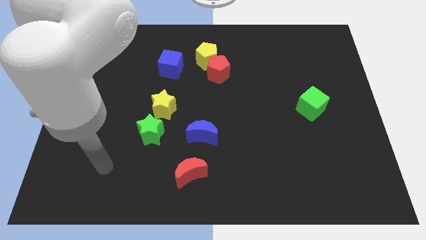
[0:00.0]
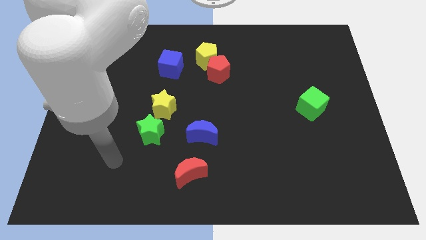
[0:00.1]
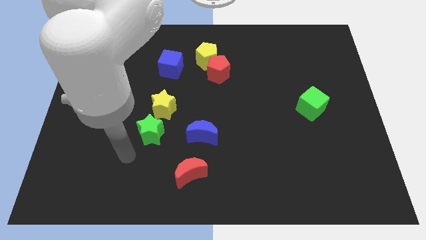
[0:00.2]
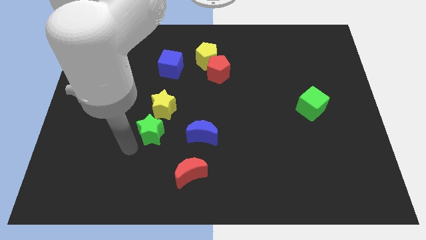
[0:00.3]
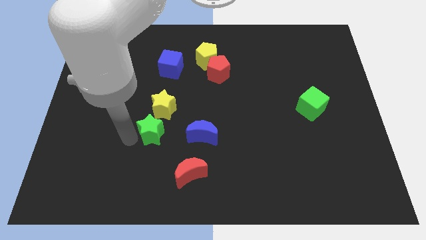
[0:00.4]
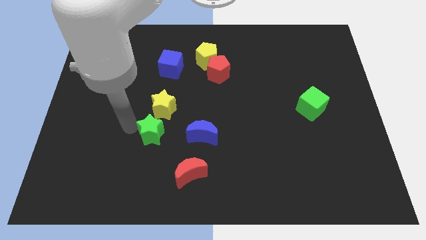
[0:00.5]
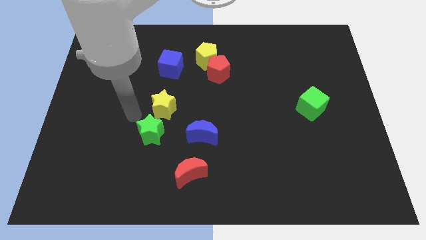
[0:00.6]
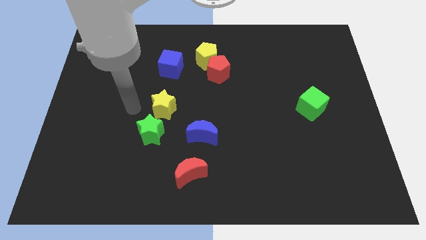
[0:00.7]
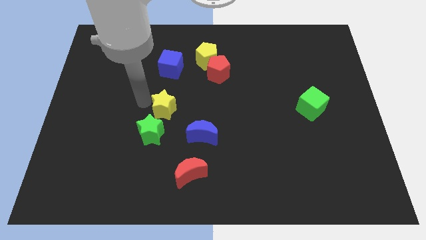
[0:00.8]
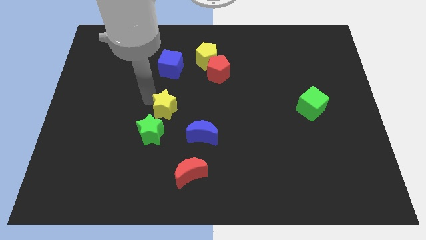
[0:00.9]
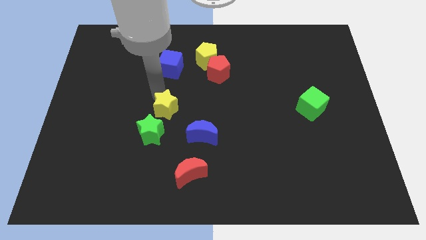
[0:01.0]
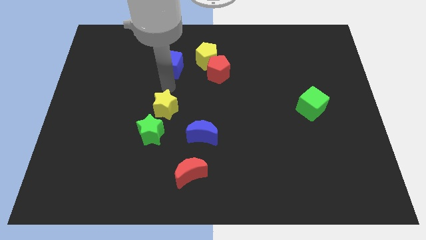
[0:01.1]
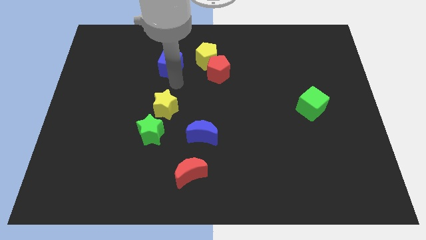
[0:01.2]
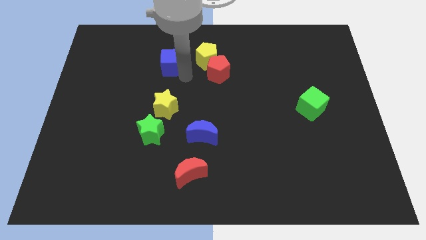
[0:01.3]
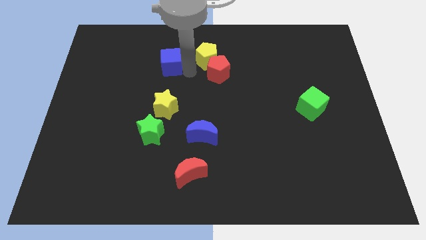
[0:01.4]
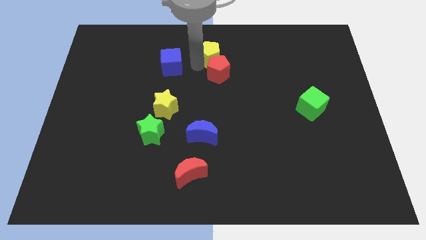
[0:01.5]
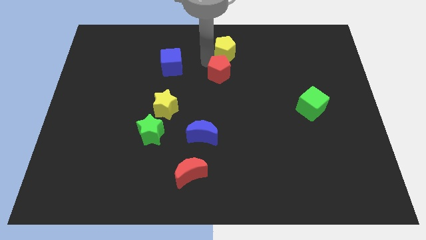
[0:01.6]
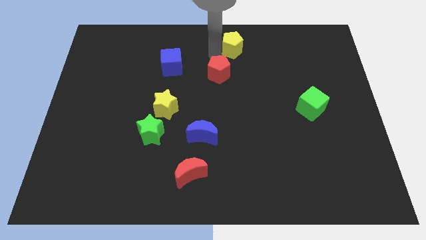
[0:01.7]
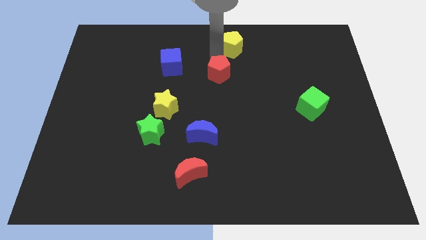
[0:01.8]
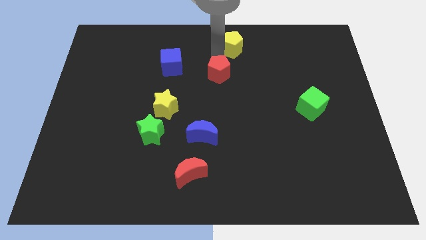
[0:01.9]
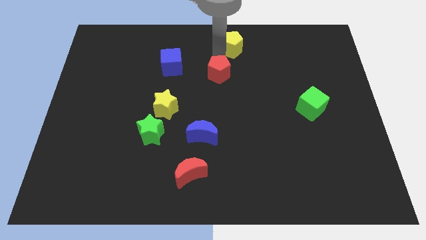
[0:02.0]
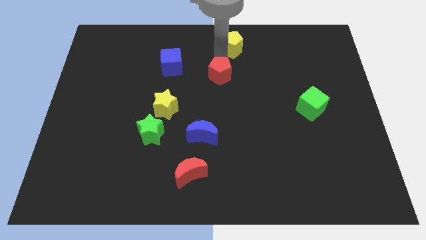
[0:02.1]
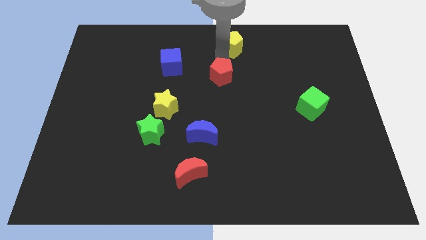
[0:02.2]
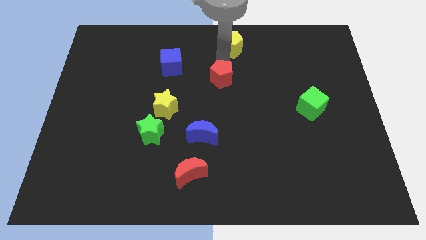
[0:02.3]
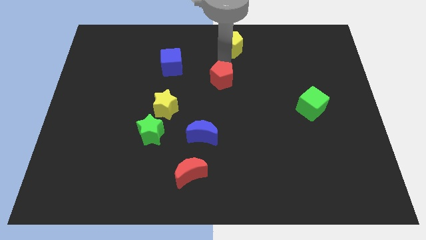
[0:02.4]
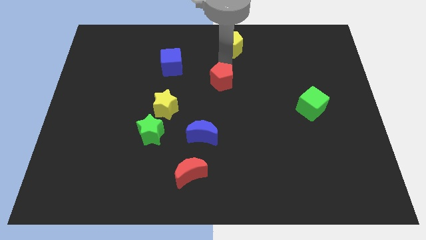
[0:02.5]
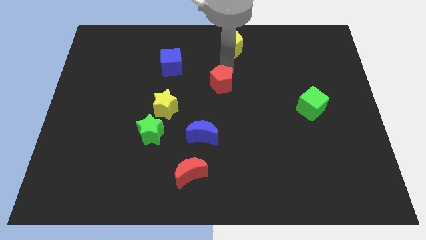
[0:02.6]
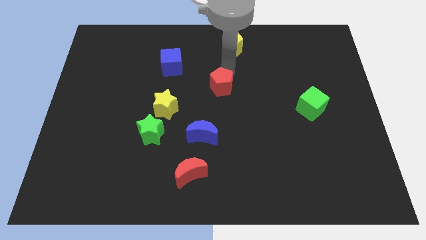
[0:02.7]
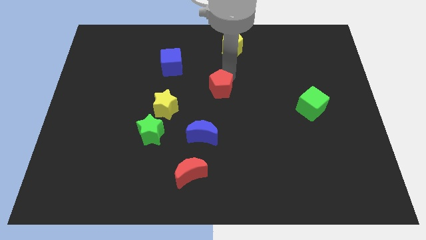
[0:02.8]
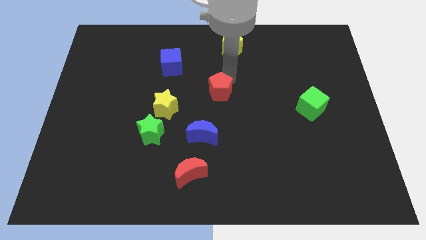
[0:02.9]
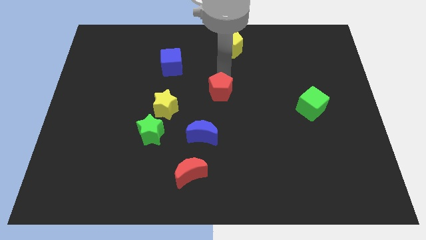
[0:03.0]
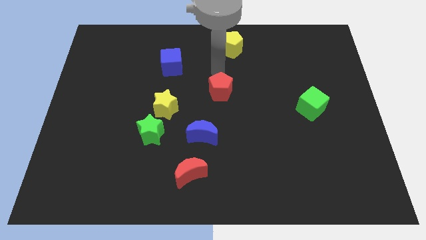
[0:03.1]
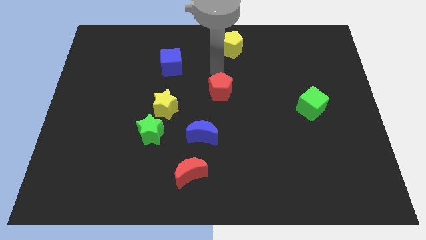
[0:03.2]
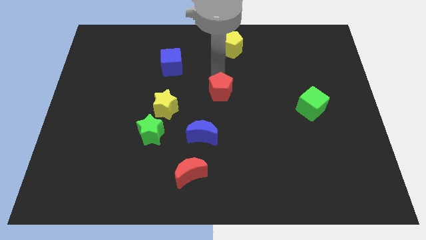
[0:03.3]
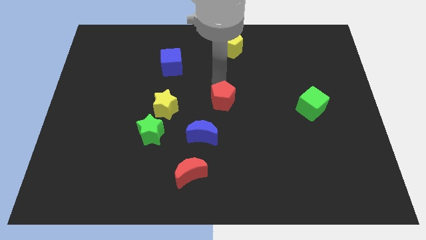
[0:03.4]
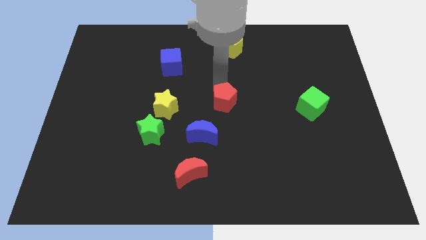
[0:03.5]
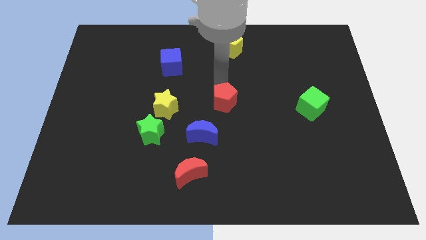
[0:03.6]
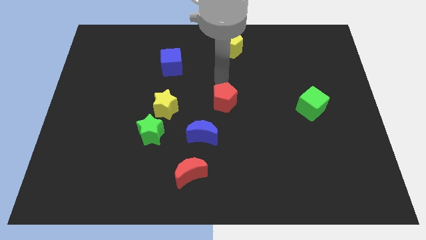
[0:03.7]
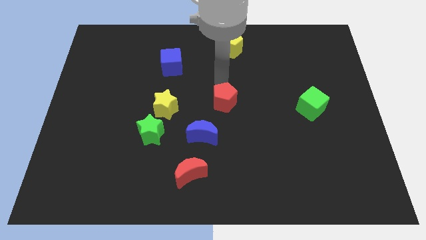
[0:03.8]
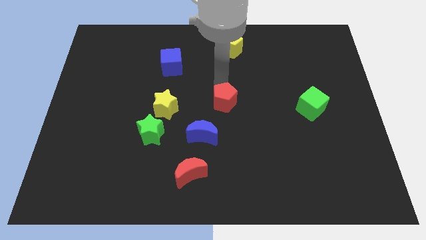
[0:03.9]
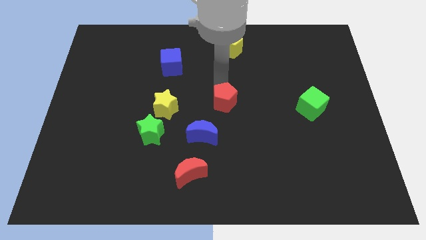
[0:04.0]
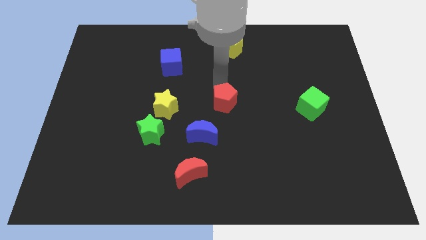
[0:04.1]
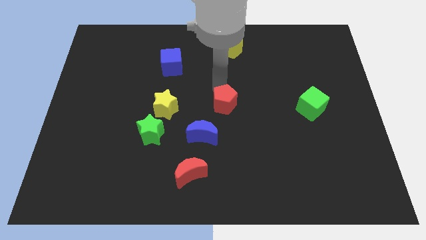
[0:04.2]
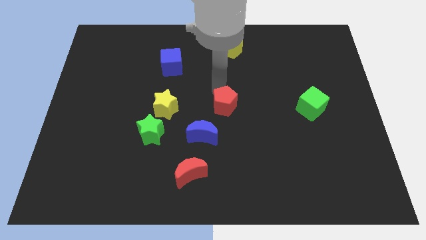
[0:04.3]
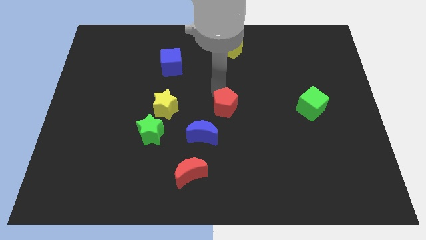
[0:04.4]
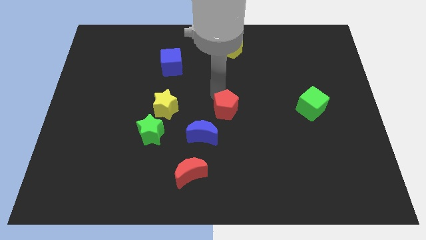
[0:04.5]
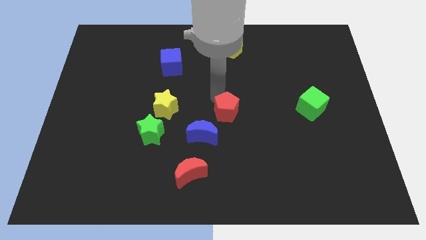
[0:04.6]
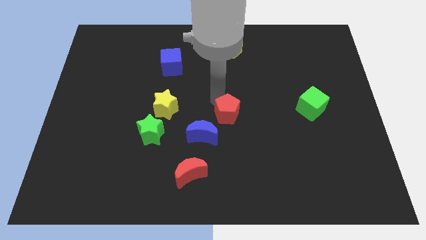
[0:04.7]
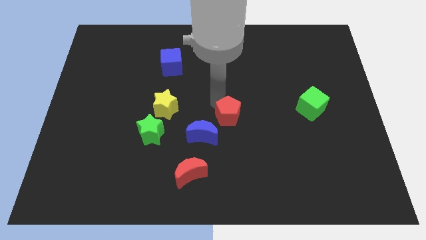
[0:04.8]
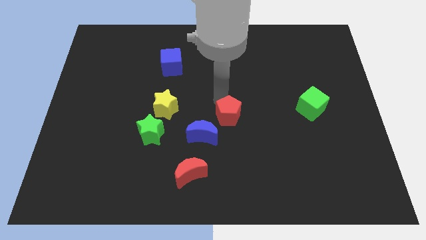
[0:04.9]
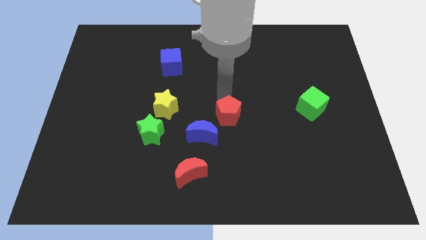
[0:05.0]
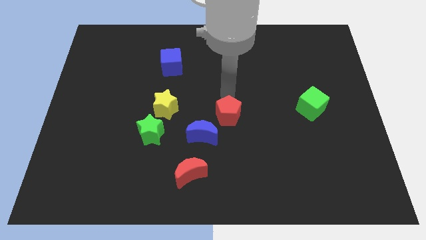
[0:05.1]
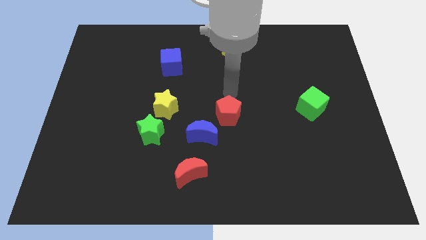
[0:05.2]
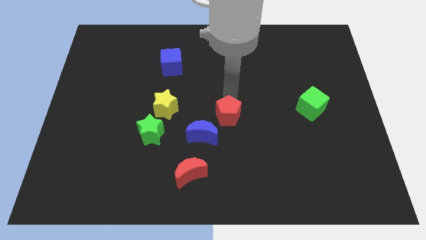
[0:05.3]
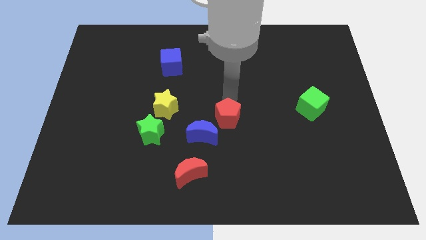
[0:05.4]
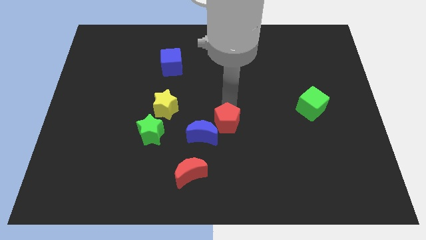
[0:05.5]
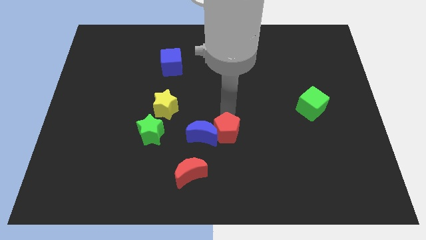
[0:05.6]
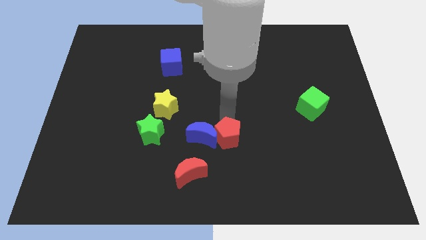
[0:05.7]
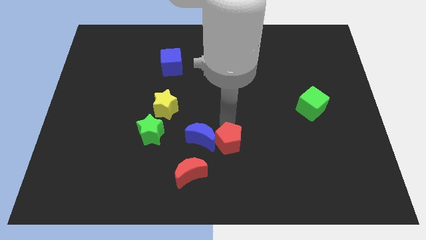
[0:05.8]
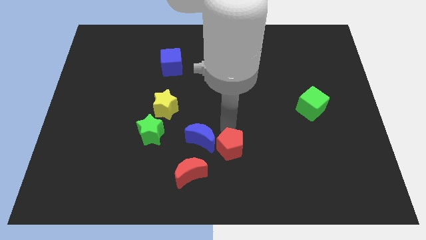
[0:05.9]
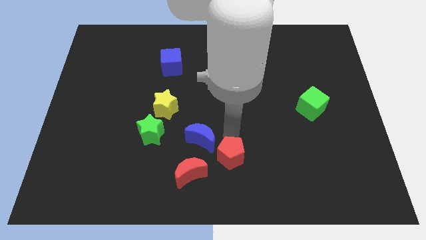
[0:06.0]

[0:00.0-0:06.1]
slide the red pentagon to the bottom
